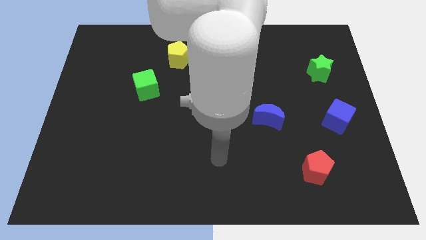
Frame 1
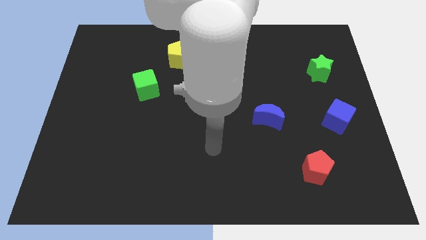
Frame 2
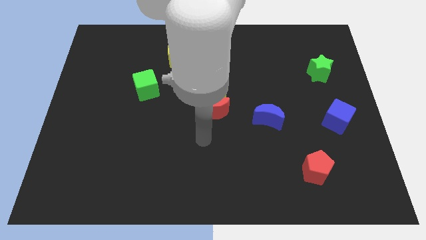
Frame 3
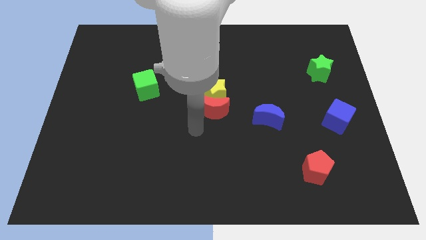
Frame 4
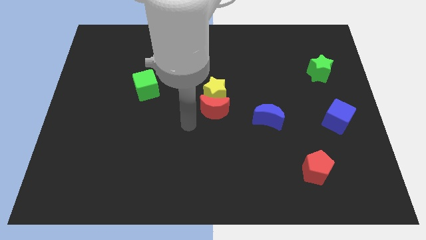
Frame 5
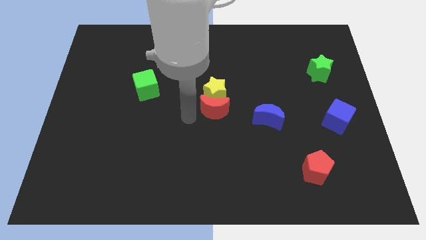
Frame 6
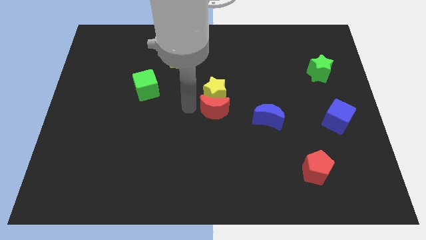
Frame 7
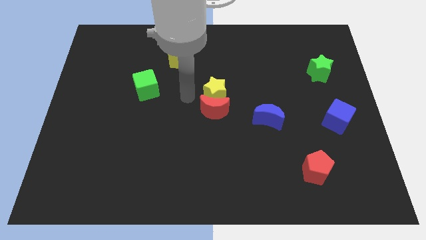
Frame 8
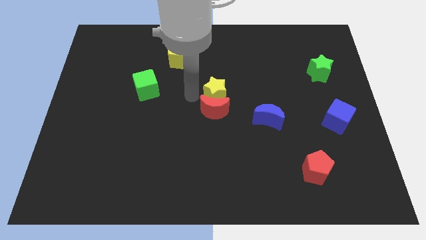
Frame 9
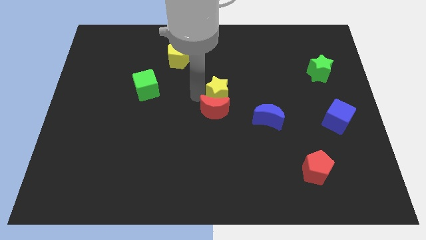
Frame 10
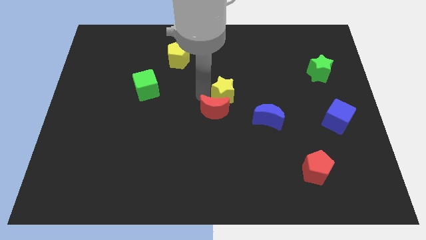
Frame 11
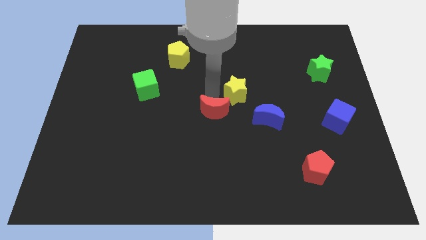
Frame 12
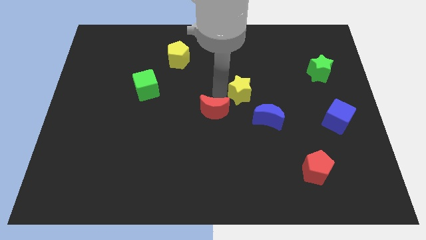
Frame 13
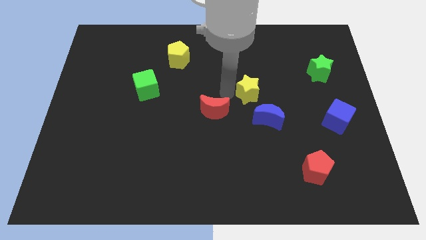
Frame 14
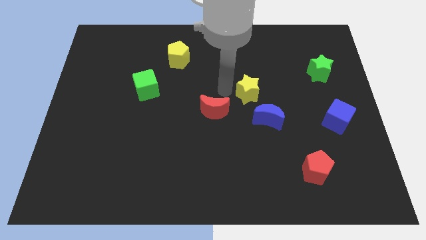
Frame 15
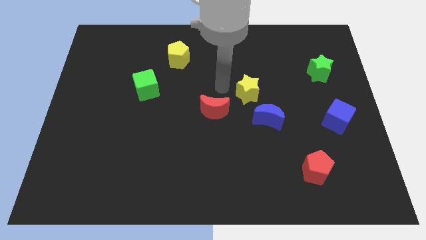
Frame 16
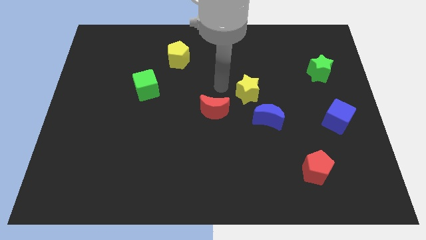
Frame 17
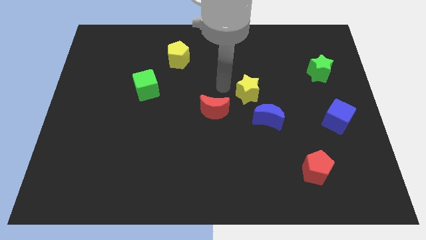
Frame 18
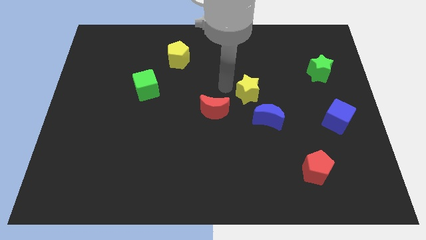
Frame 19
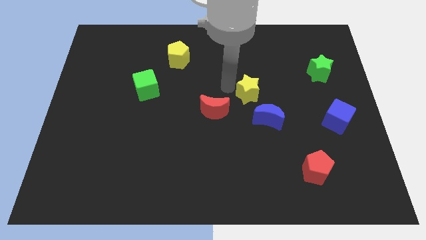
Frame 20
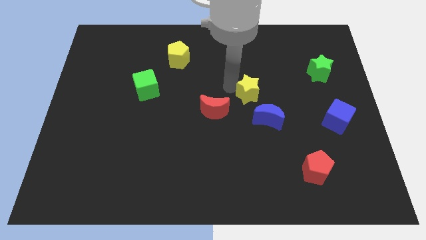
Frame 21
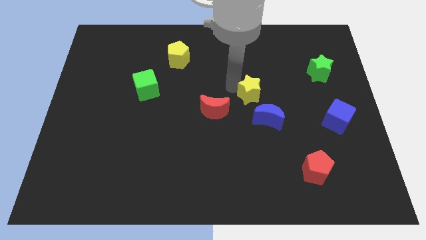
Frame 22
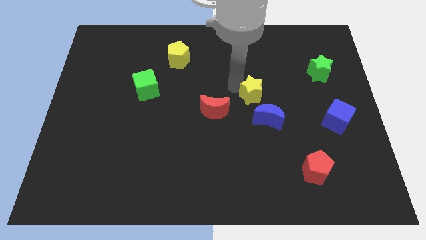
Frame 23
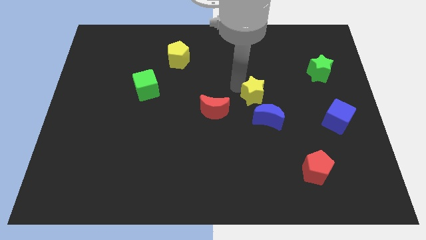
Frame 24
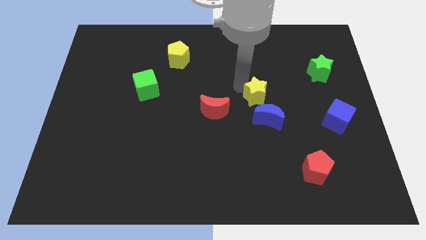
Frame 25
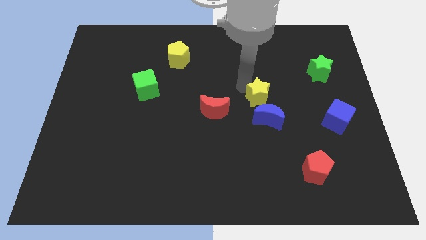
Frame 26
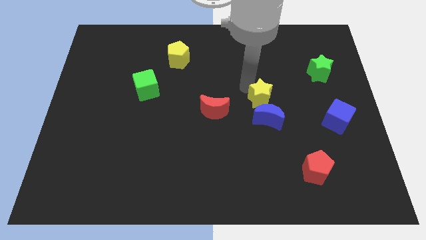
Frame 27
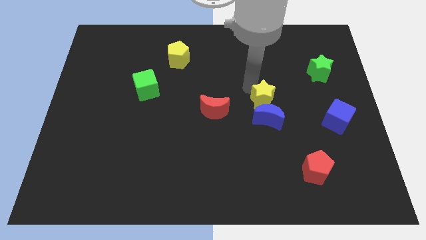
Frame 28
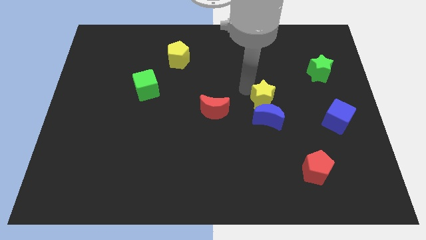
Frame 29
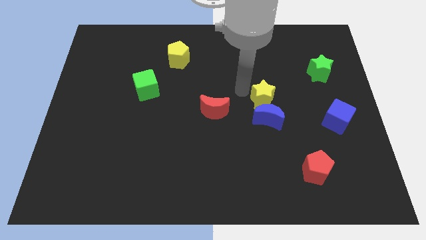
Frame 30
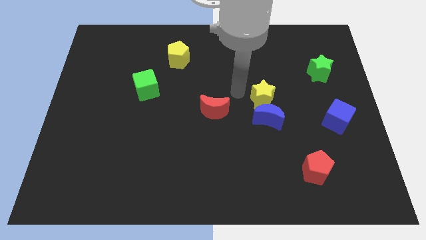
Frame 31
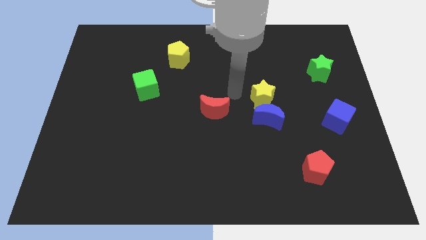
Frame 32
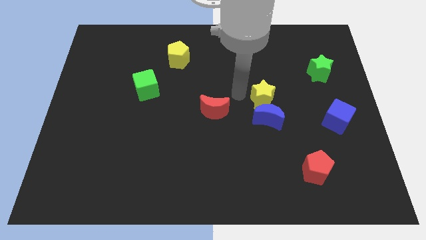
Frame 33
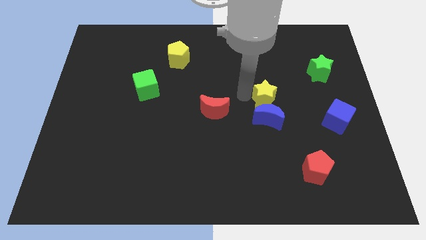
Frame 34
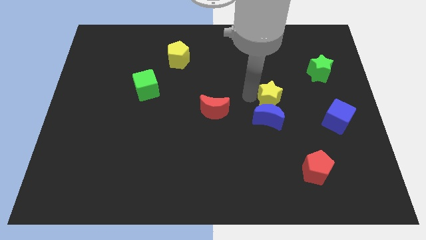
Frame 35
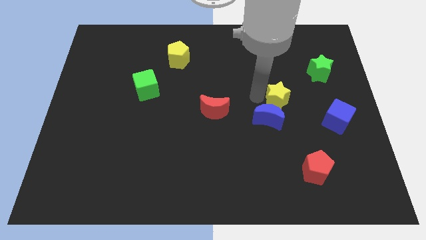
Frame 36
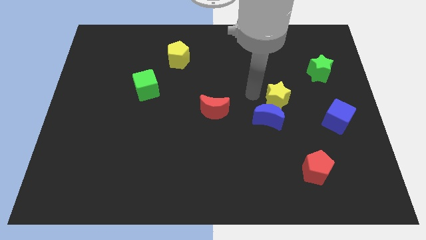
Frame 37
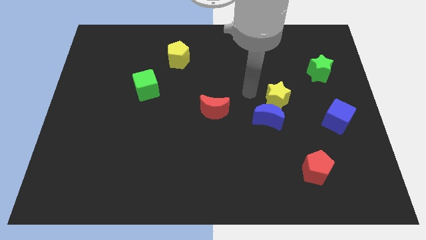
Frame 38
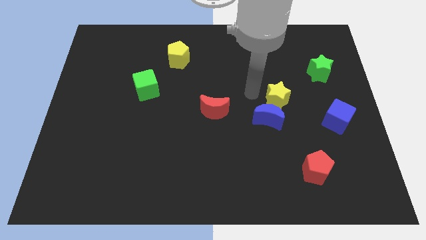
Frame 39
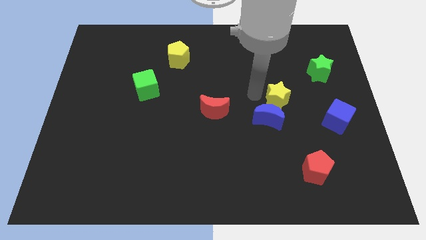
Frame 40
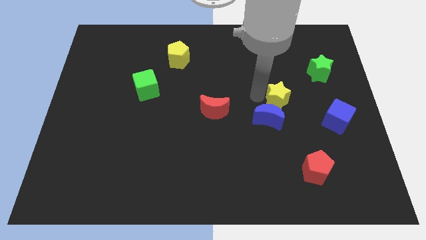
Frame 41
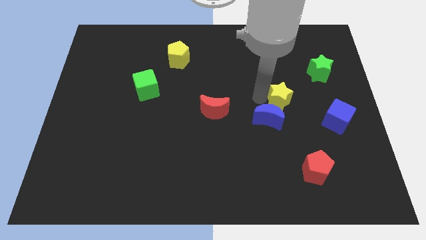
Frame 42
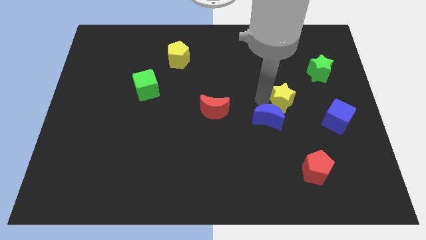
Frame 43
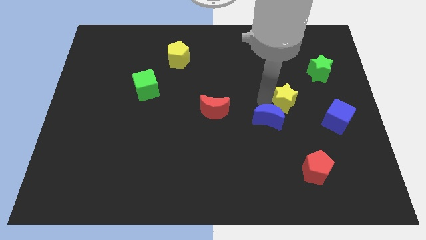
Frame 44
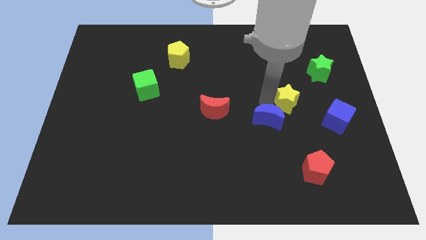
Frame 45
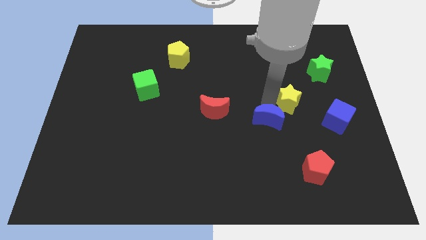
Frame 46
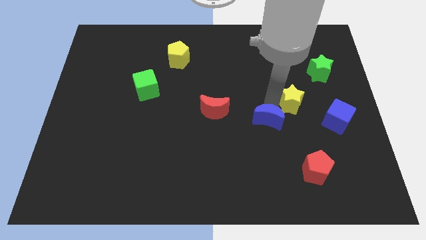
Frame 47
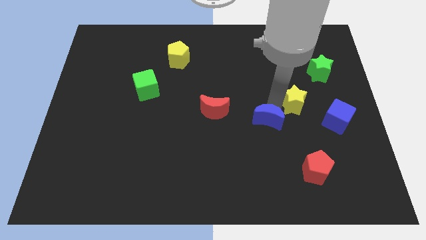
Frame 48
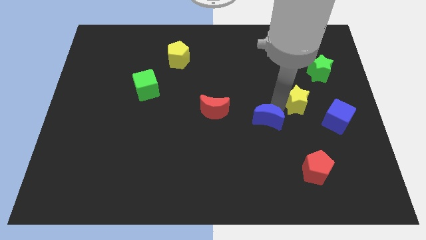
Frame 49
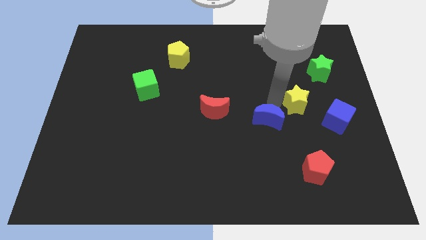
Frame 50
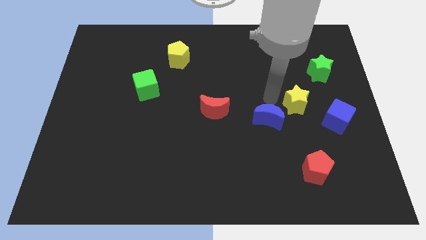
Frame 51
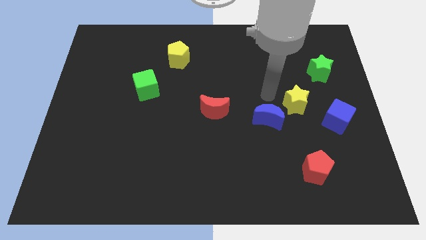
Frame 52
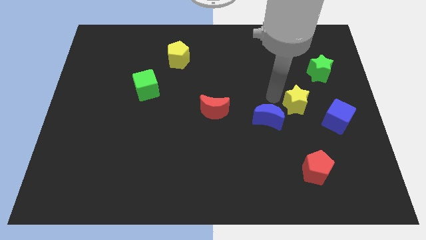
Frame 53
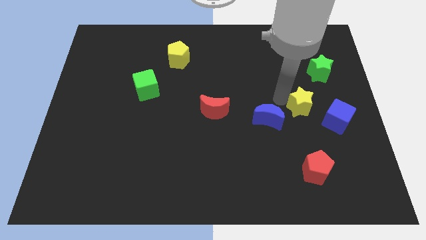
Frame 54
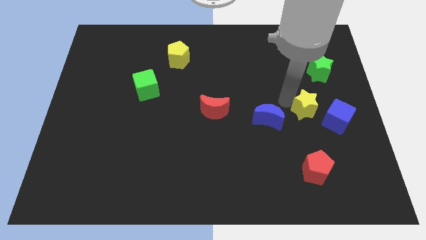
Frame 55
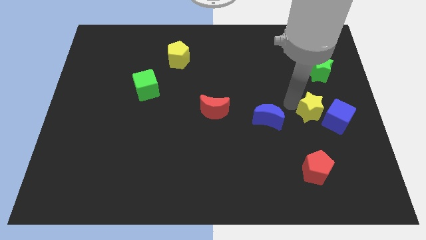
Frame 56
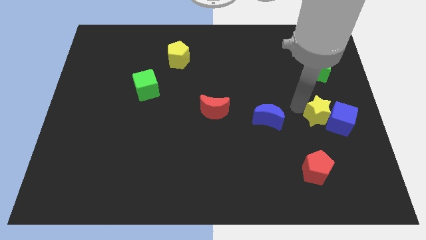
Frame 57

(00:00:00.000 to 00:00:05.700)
move the yellow star close to the blue cube

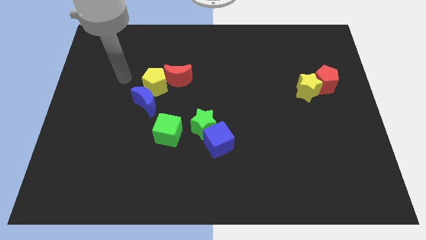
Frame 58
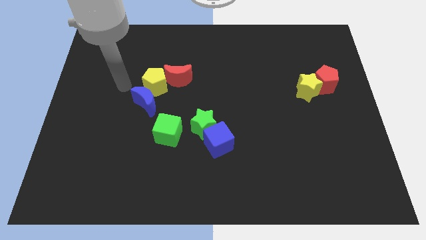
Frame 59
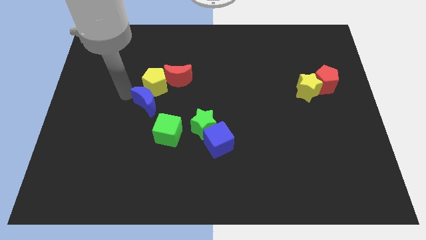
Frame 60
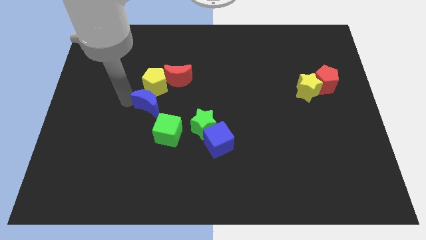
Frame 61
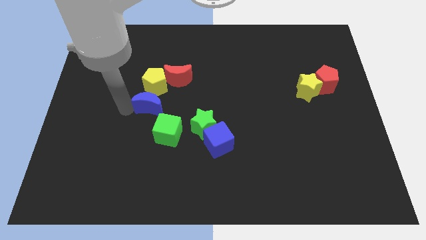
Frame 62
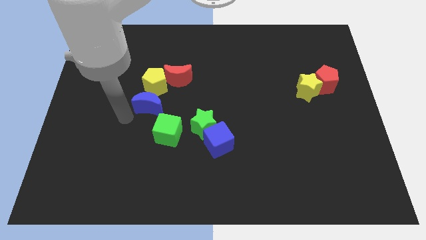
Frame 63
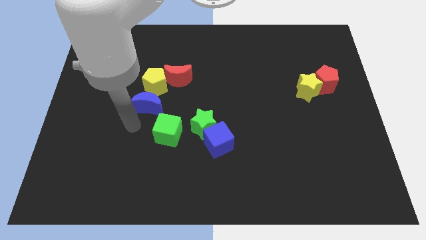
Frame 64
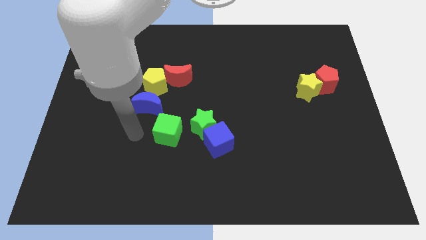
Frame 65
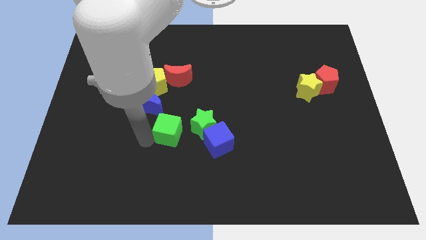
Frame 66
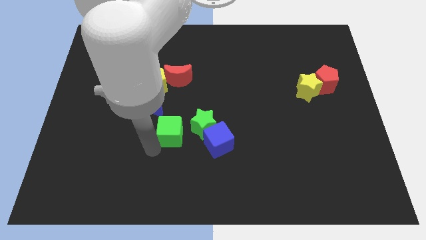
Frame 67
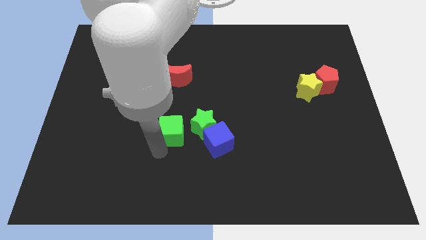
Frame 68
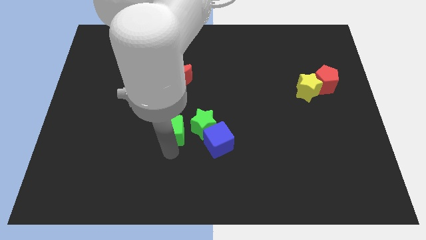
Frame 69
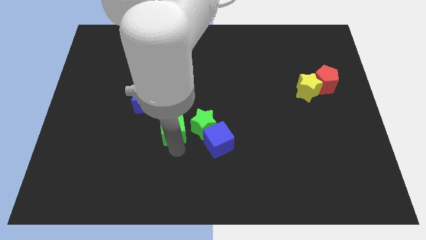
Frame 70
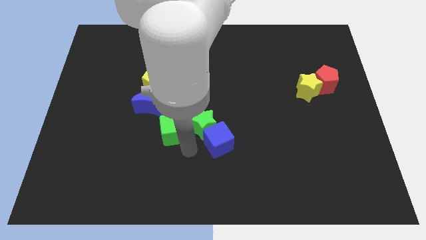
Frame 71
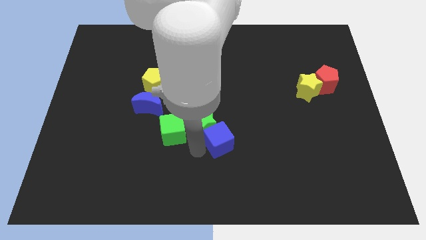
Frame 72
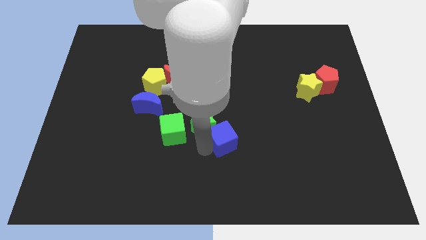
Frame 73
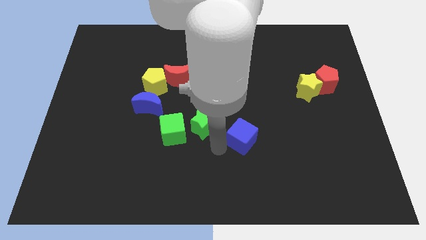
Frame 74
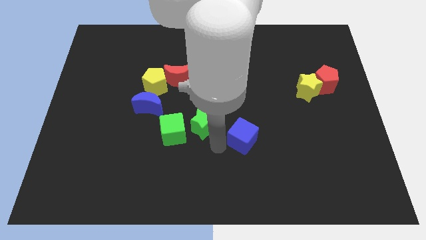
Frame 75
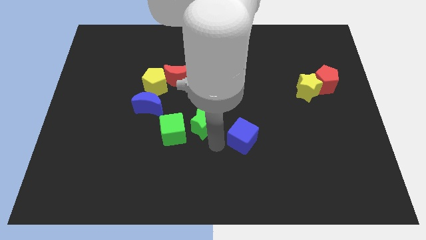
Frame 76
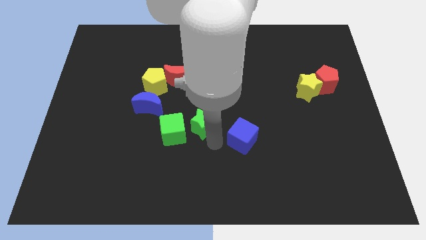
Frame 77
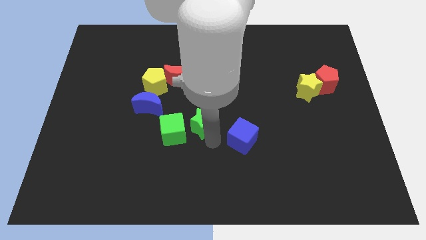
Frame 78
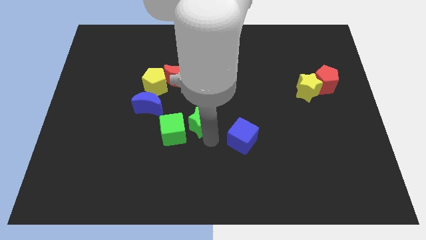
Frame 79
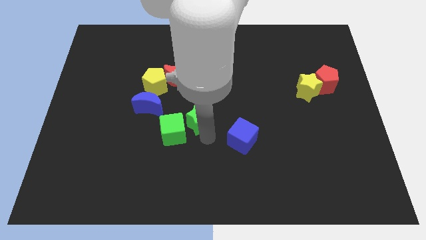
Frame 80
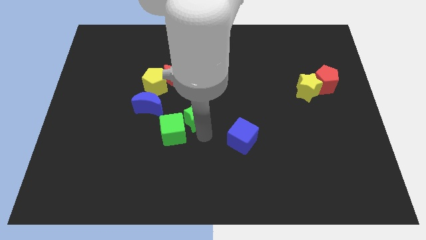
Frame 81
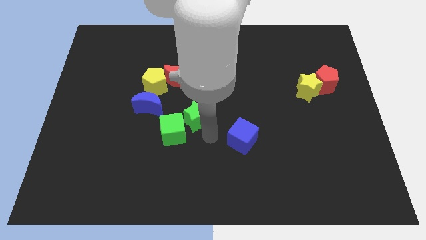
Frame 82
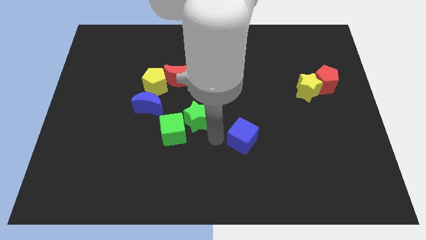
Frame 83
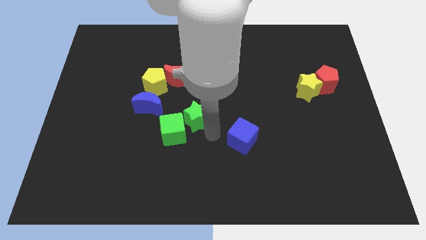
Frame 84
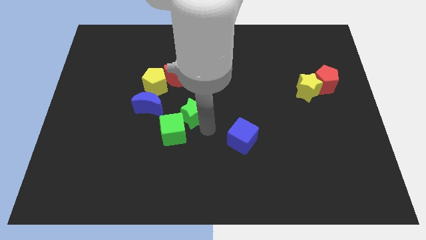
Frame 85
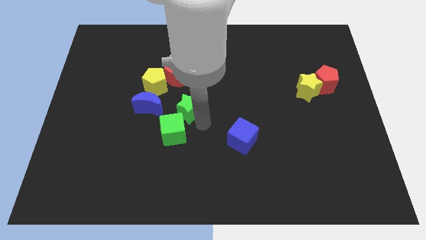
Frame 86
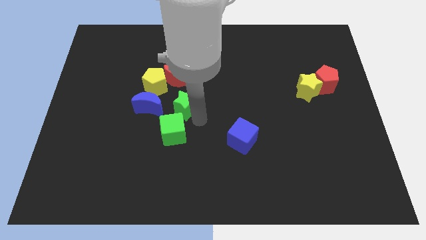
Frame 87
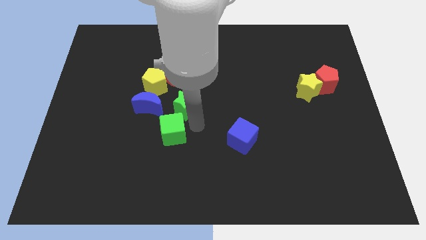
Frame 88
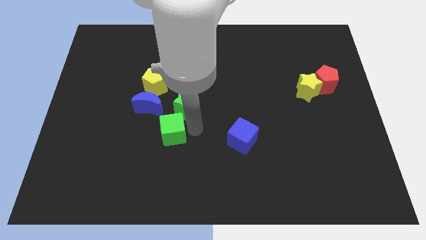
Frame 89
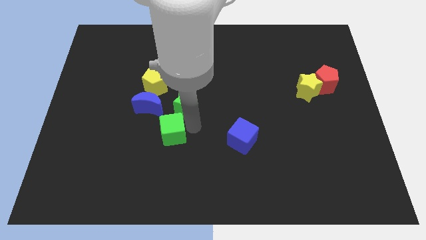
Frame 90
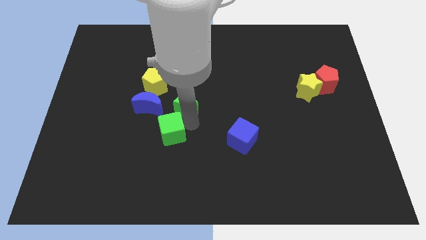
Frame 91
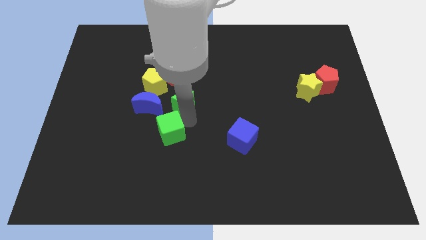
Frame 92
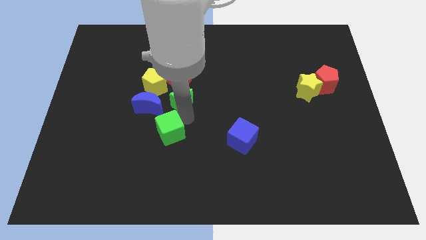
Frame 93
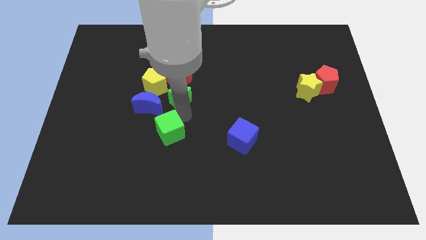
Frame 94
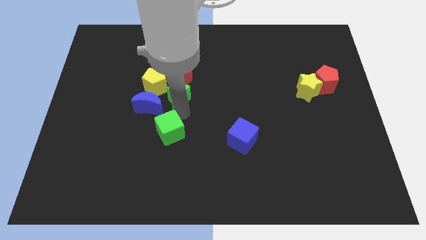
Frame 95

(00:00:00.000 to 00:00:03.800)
put the green star to the red moon
